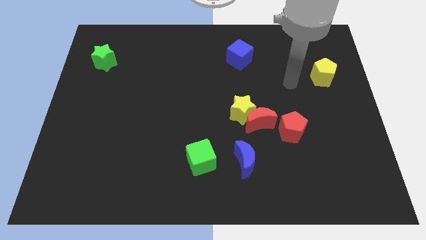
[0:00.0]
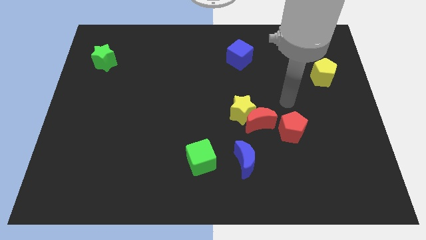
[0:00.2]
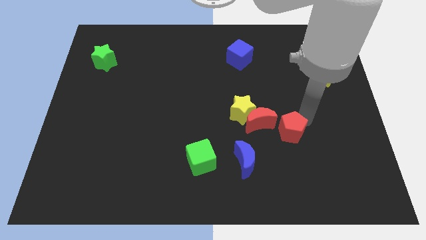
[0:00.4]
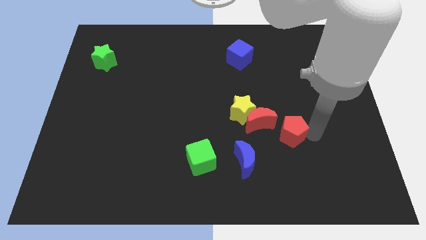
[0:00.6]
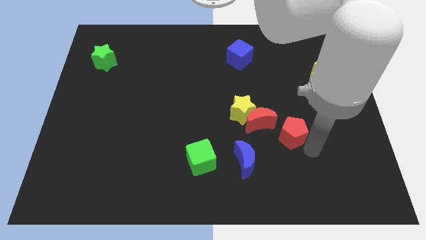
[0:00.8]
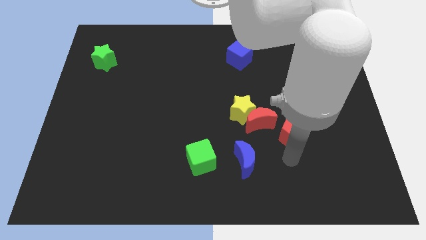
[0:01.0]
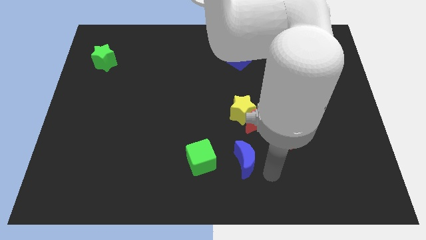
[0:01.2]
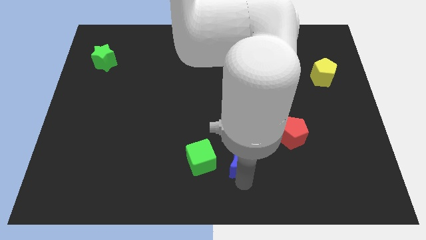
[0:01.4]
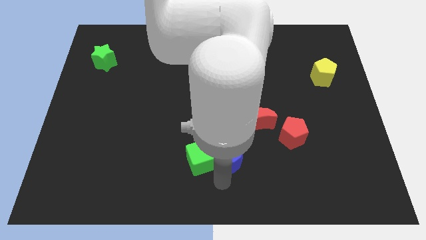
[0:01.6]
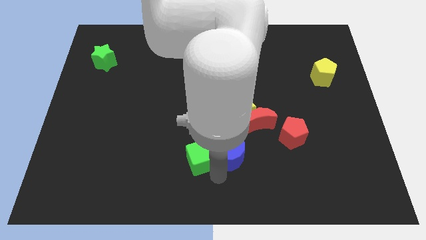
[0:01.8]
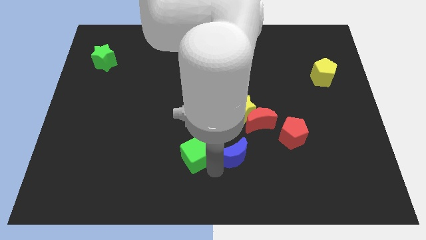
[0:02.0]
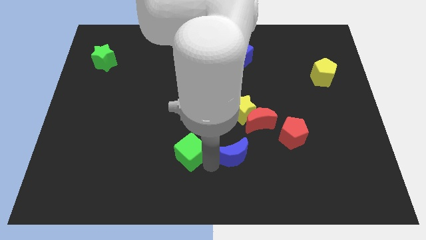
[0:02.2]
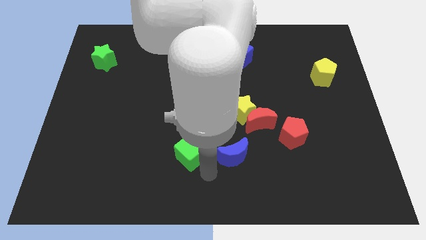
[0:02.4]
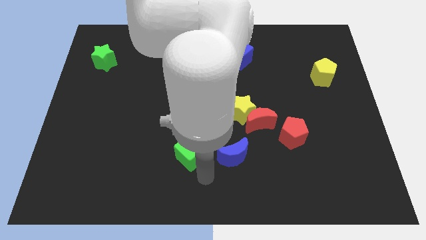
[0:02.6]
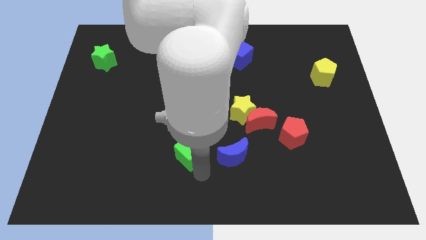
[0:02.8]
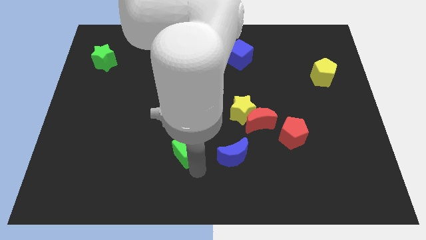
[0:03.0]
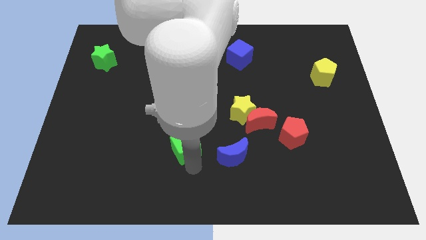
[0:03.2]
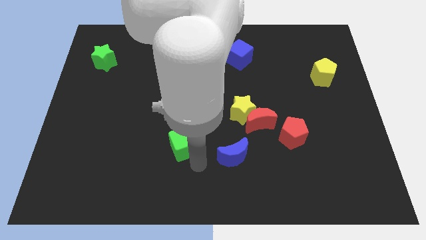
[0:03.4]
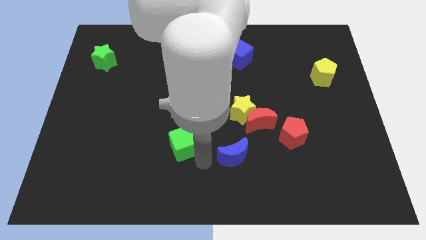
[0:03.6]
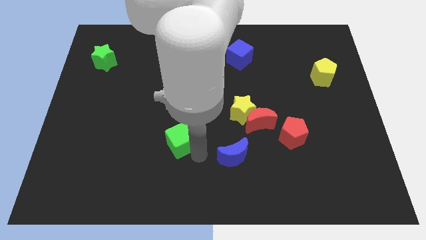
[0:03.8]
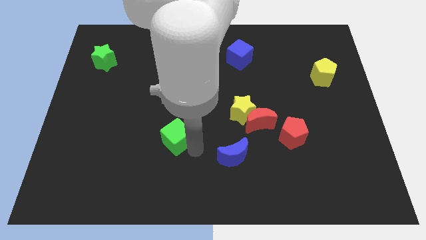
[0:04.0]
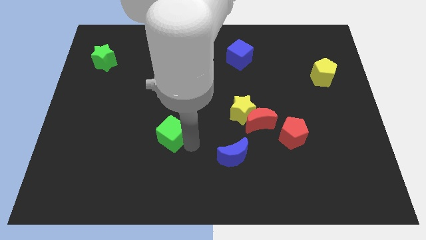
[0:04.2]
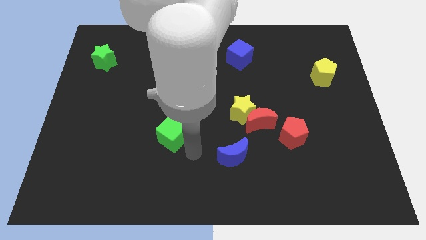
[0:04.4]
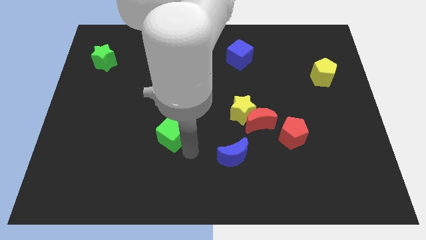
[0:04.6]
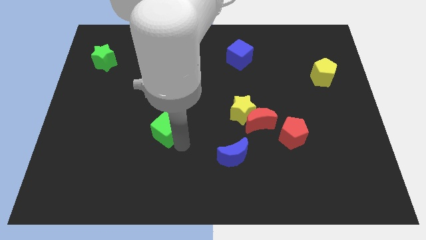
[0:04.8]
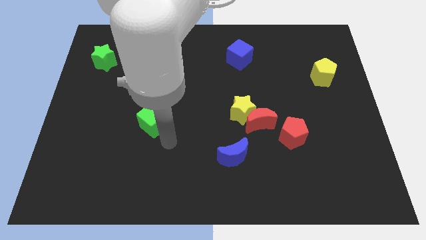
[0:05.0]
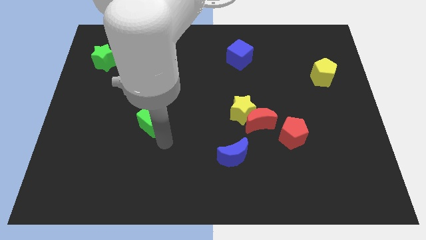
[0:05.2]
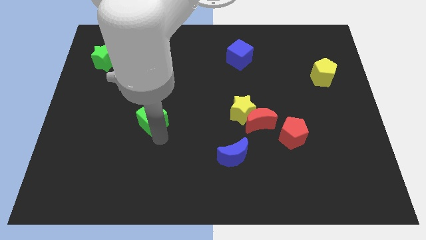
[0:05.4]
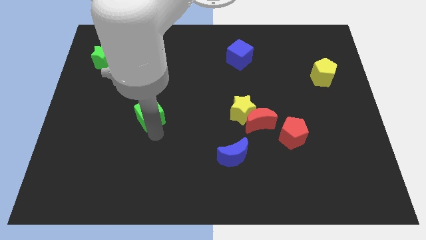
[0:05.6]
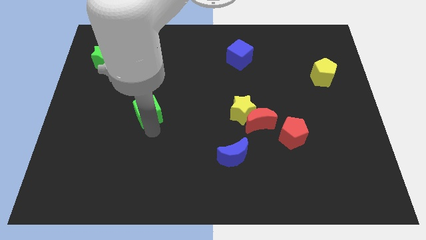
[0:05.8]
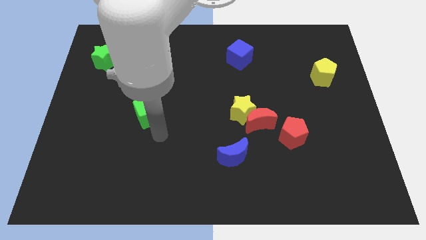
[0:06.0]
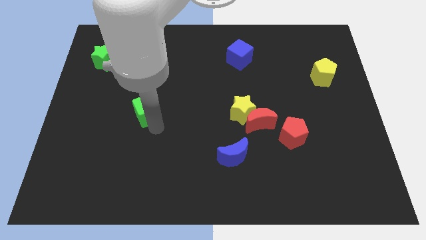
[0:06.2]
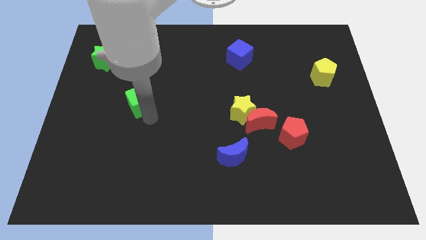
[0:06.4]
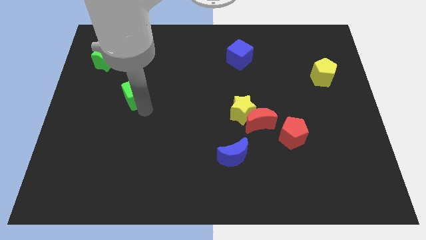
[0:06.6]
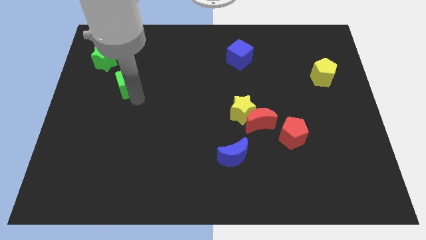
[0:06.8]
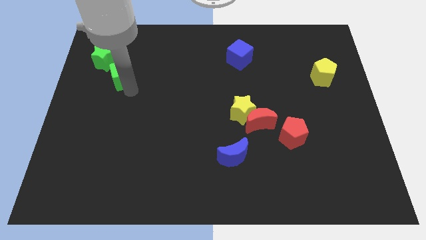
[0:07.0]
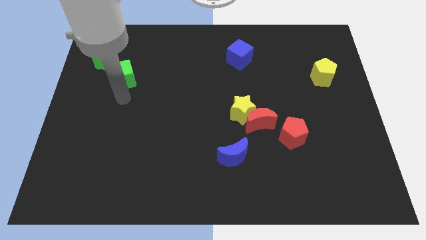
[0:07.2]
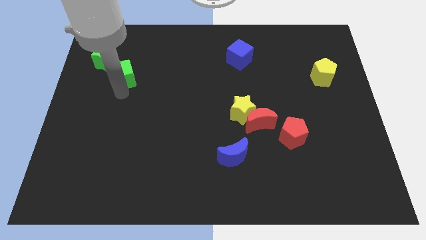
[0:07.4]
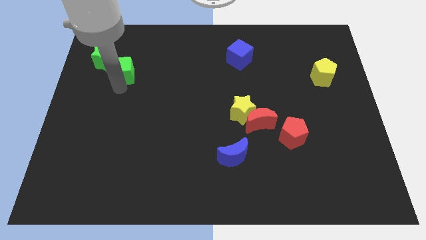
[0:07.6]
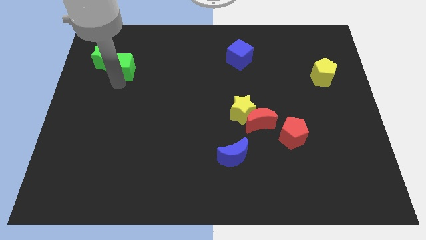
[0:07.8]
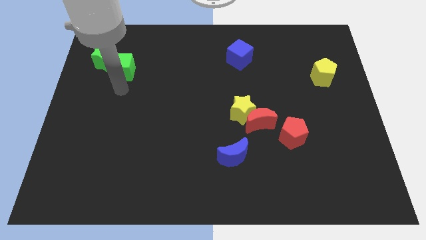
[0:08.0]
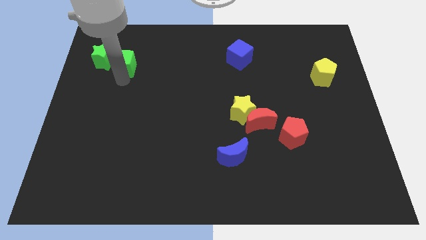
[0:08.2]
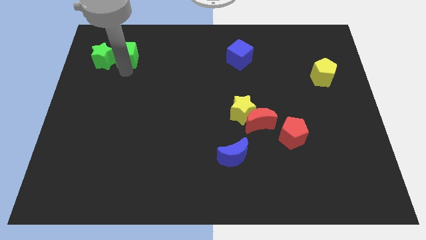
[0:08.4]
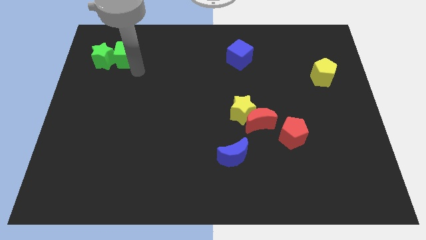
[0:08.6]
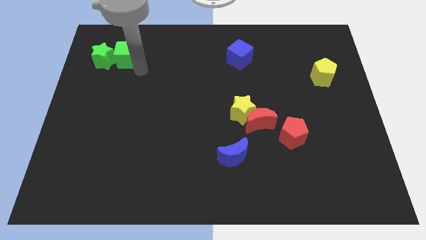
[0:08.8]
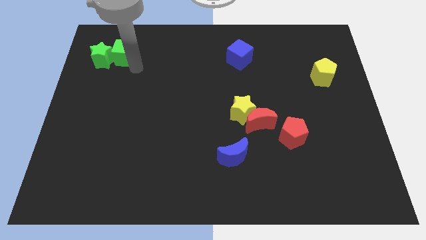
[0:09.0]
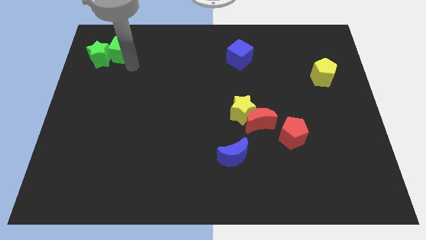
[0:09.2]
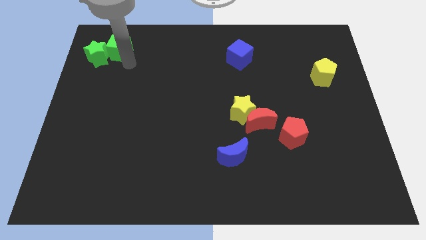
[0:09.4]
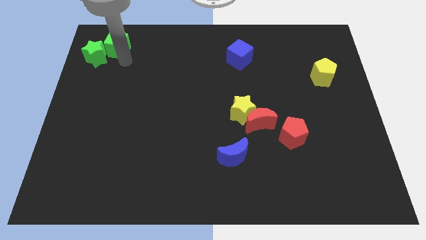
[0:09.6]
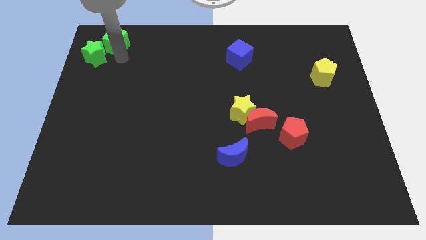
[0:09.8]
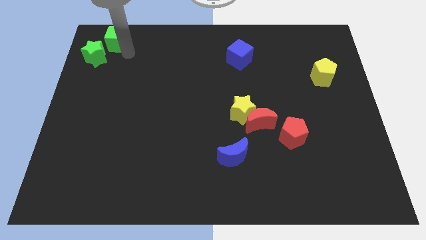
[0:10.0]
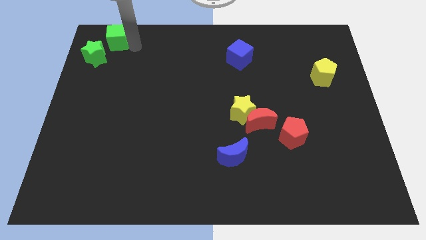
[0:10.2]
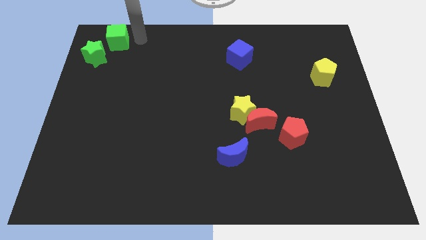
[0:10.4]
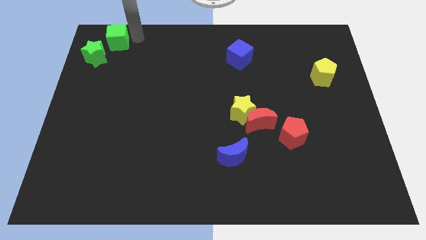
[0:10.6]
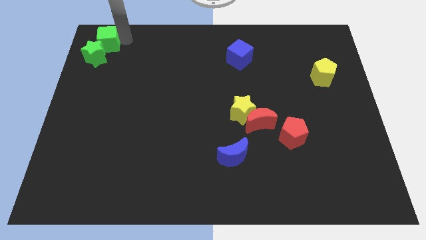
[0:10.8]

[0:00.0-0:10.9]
move the green cube to the upper left corner

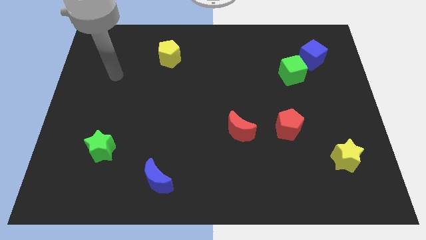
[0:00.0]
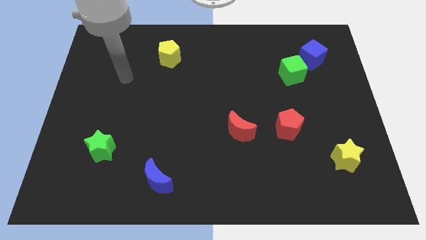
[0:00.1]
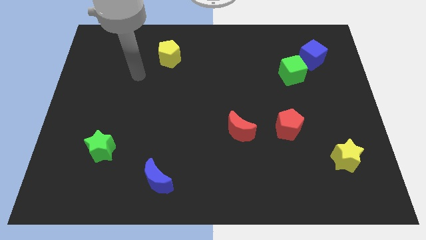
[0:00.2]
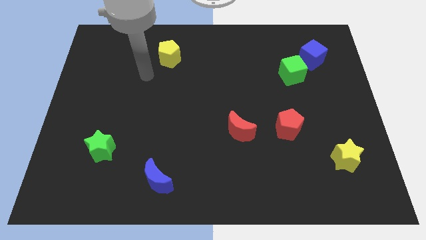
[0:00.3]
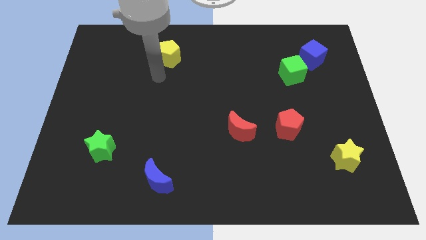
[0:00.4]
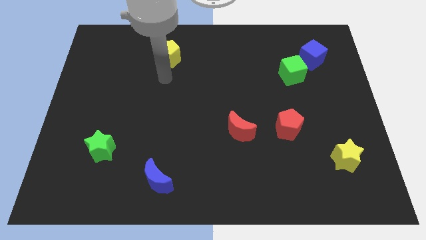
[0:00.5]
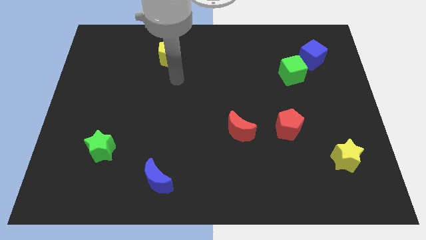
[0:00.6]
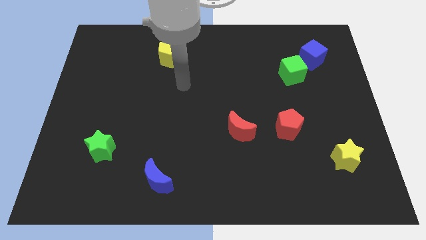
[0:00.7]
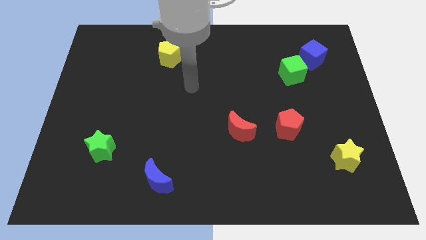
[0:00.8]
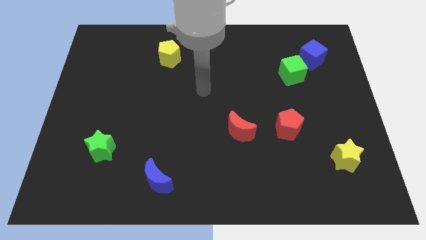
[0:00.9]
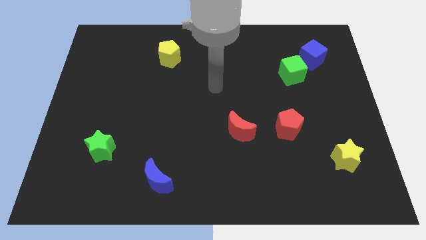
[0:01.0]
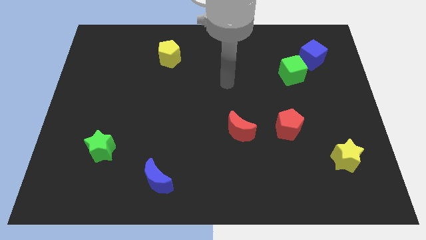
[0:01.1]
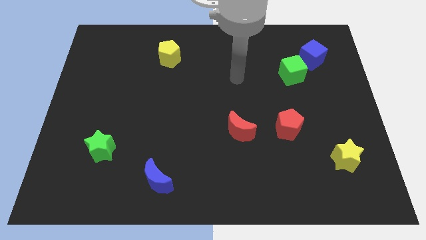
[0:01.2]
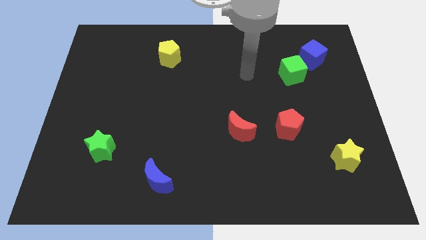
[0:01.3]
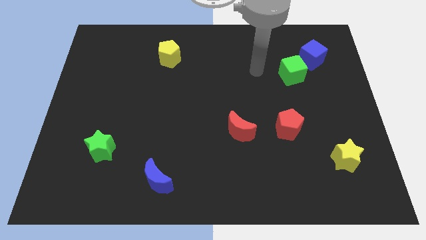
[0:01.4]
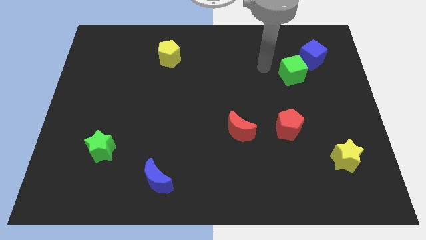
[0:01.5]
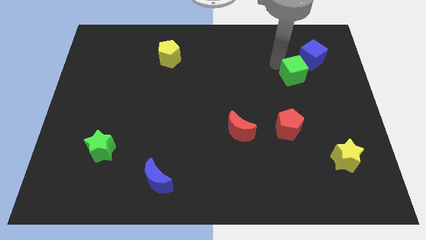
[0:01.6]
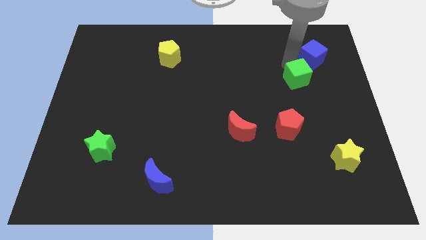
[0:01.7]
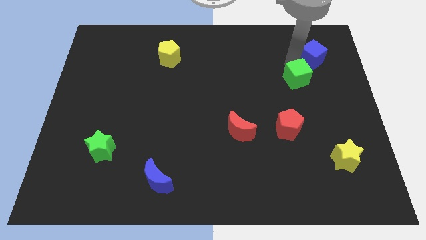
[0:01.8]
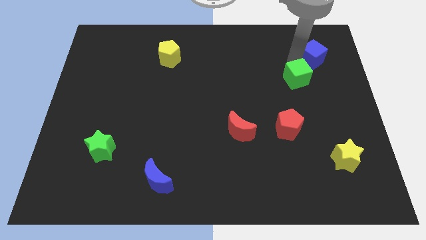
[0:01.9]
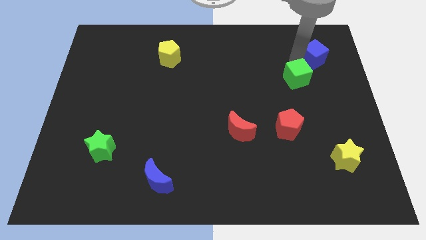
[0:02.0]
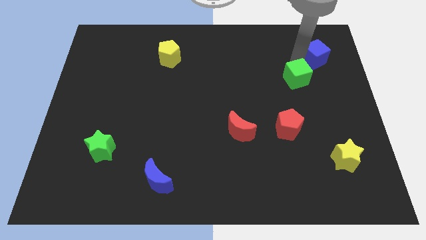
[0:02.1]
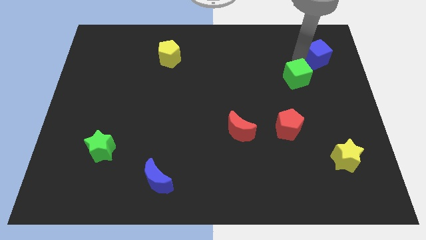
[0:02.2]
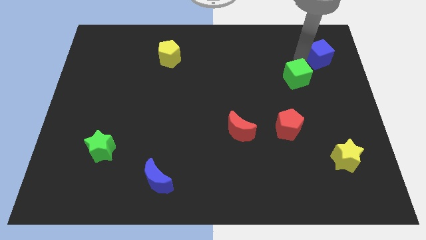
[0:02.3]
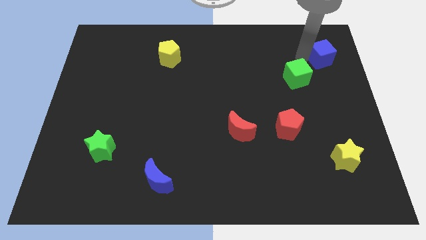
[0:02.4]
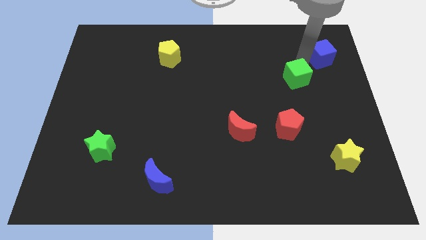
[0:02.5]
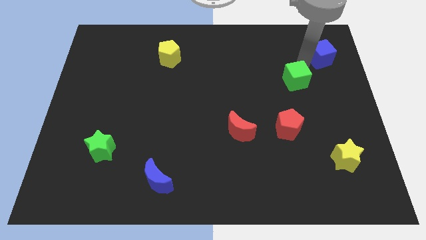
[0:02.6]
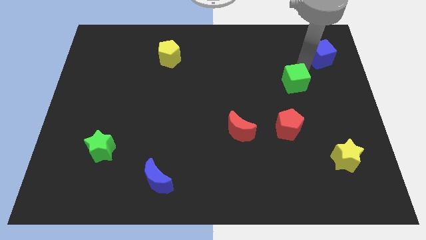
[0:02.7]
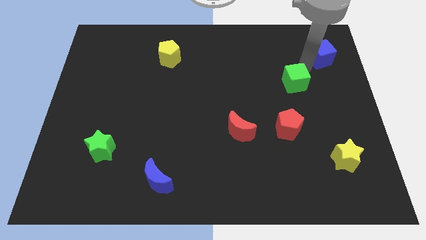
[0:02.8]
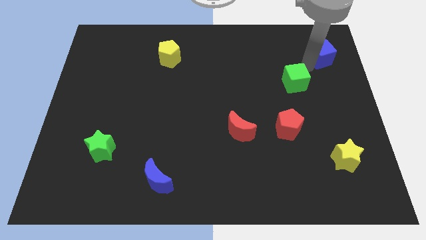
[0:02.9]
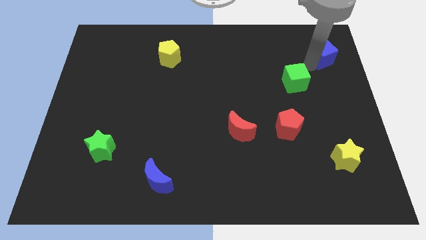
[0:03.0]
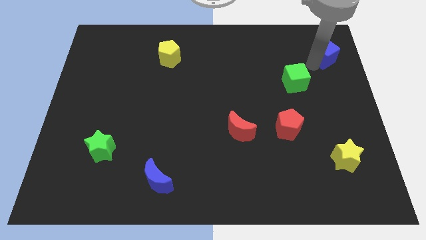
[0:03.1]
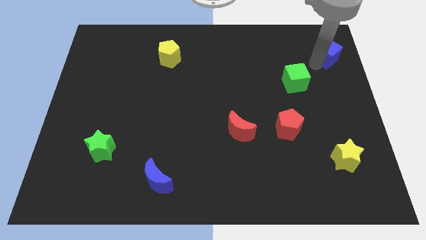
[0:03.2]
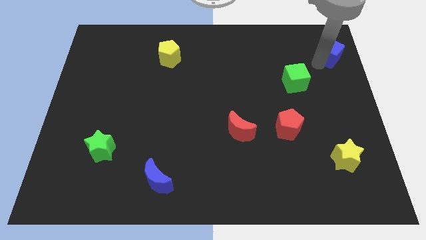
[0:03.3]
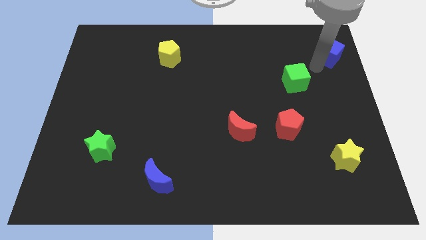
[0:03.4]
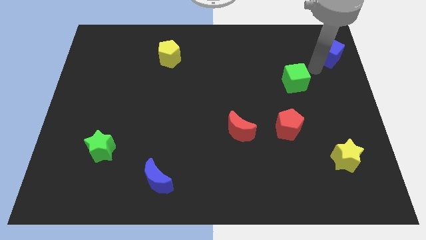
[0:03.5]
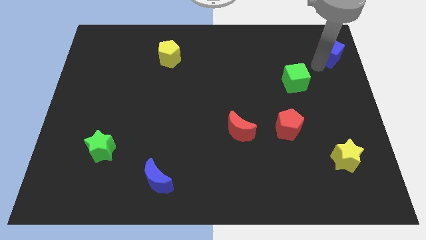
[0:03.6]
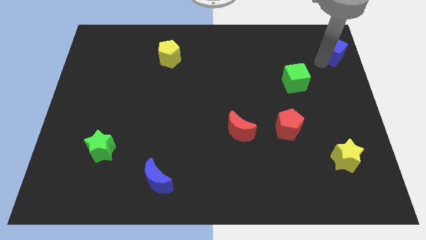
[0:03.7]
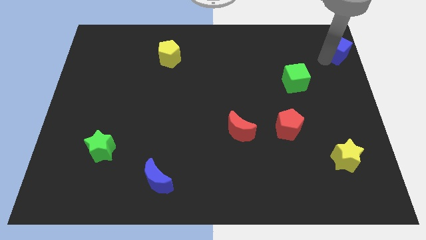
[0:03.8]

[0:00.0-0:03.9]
put the blue cube to the upper right corner
